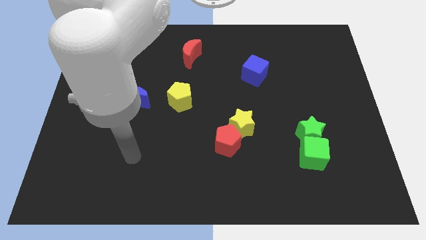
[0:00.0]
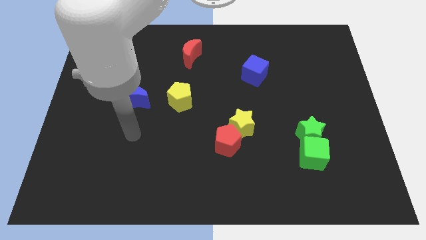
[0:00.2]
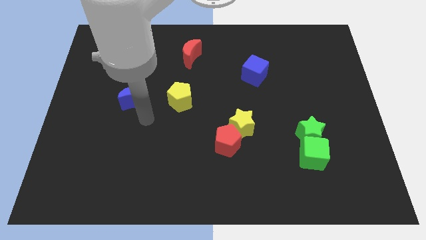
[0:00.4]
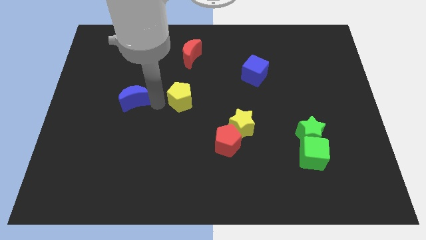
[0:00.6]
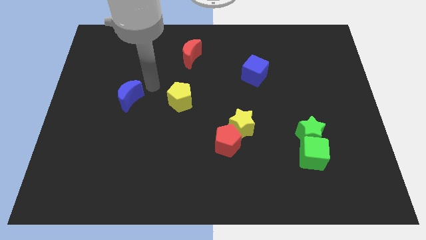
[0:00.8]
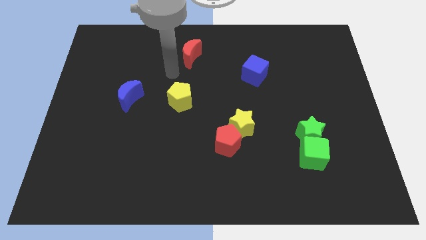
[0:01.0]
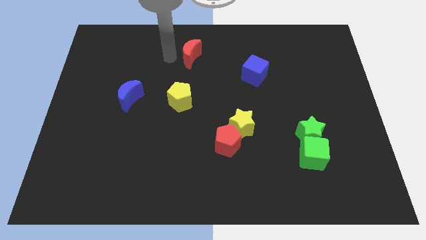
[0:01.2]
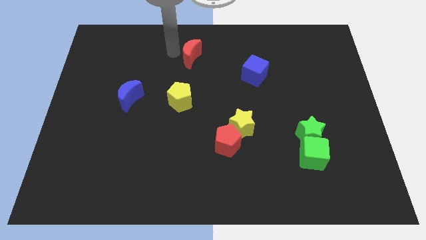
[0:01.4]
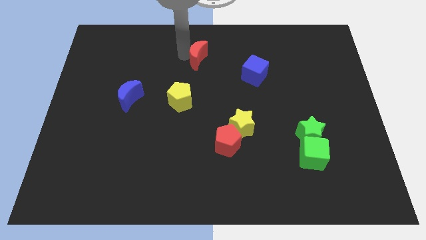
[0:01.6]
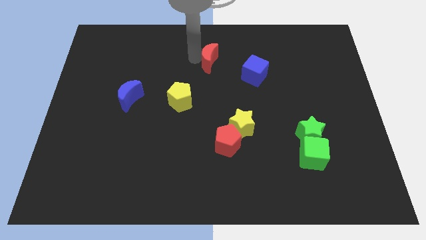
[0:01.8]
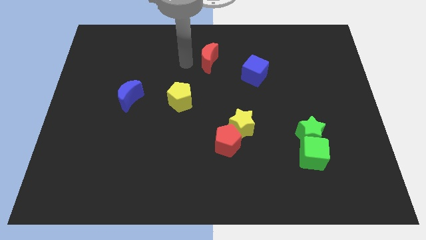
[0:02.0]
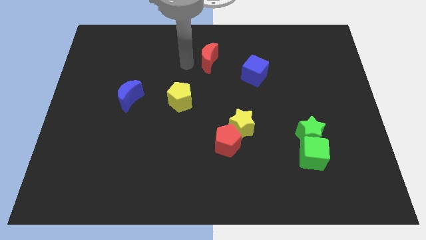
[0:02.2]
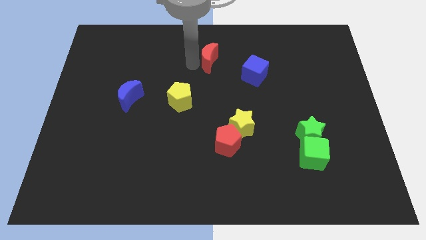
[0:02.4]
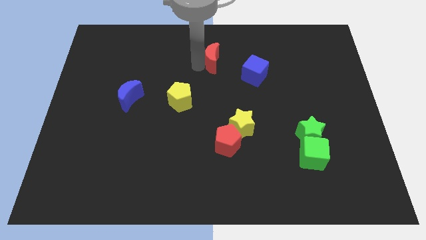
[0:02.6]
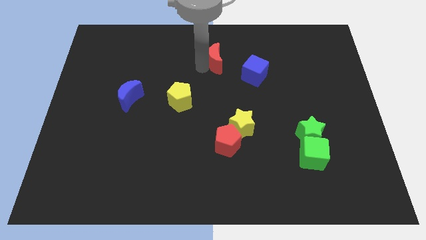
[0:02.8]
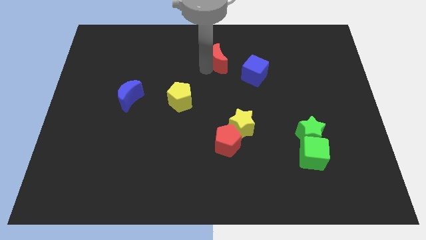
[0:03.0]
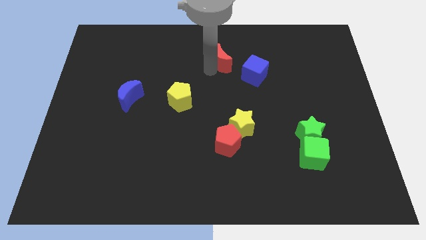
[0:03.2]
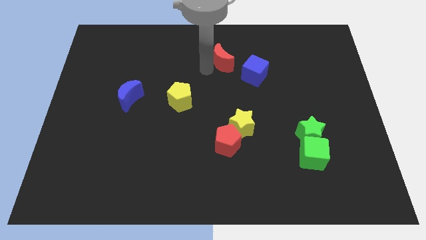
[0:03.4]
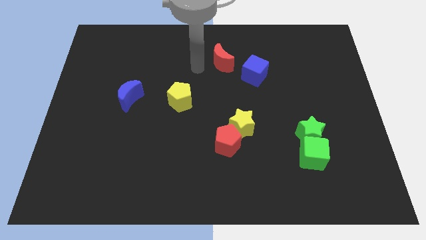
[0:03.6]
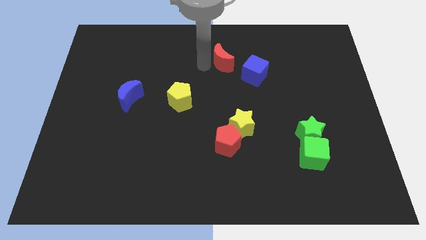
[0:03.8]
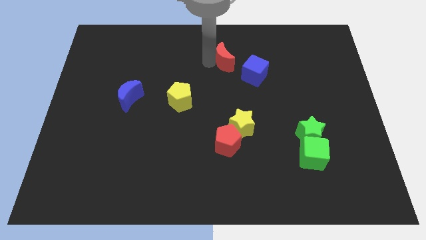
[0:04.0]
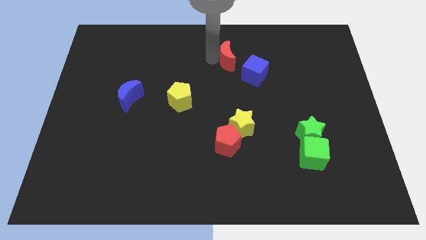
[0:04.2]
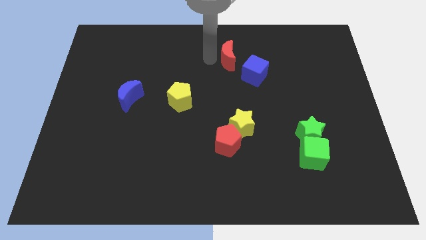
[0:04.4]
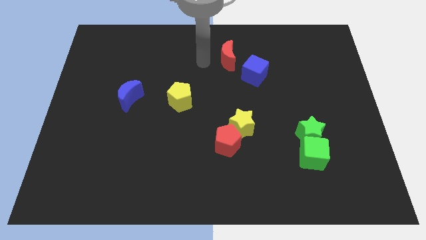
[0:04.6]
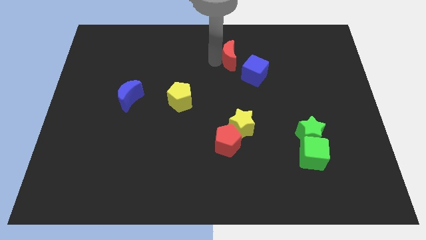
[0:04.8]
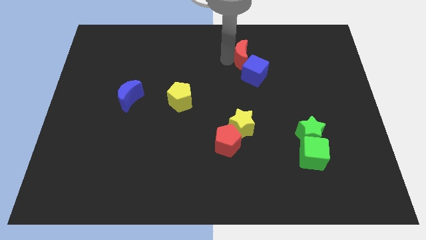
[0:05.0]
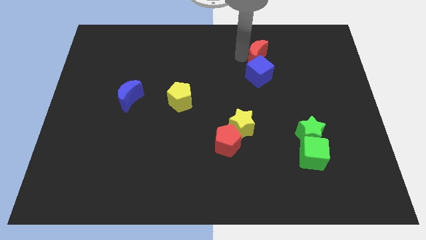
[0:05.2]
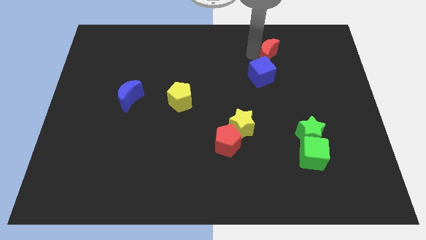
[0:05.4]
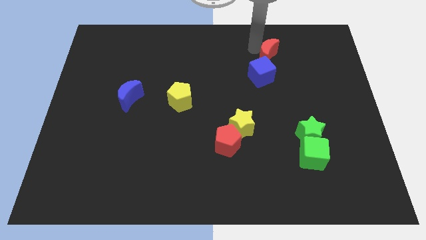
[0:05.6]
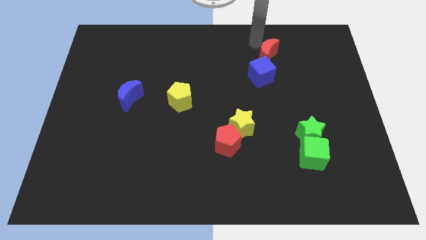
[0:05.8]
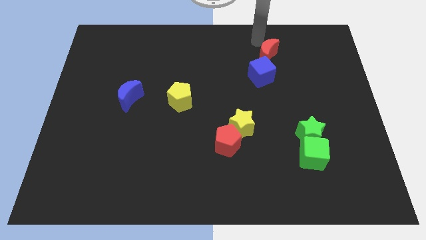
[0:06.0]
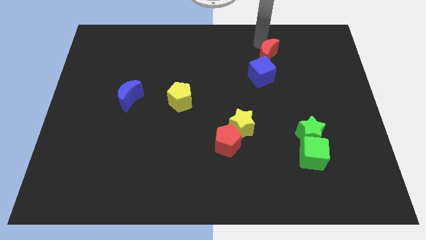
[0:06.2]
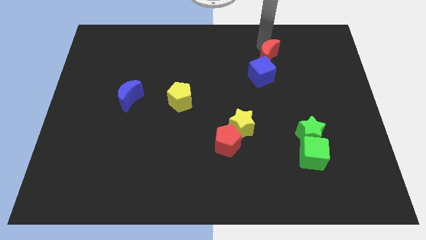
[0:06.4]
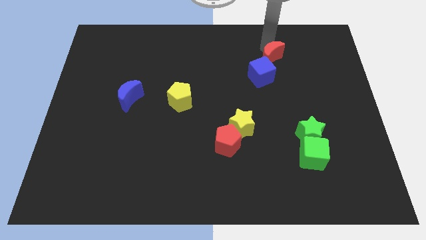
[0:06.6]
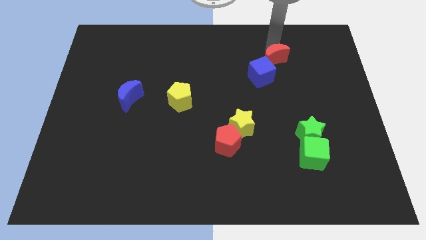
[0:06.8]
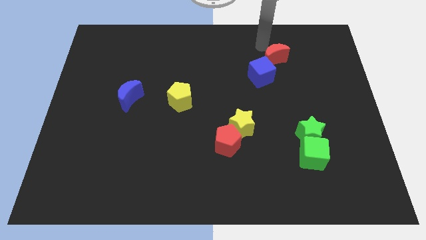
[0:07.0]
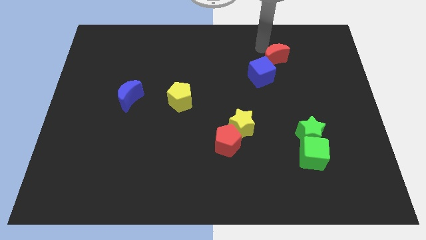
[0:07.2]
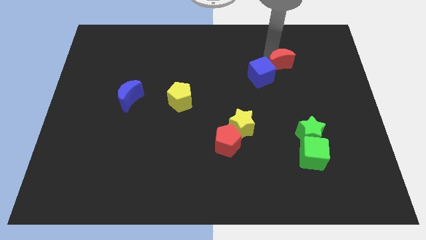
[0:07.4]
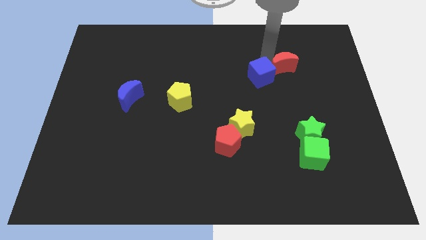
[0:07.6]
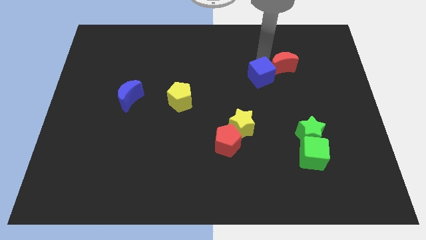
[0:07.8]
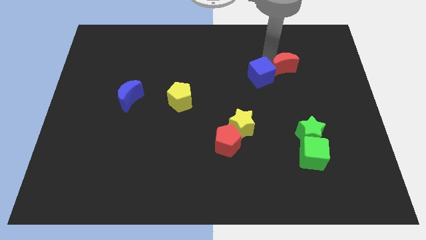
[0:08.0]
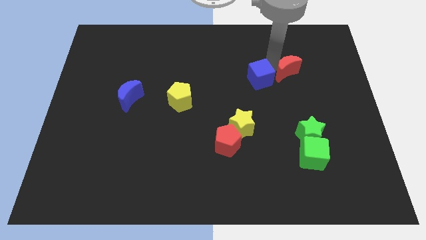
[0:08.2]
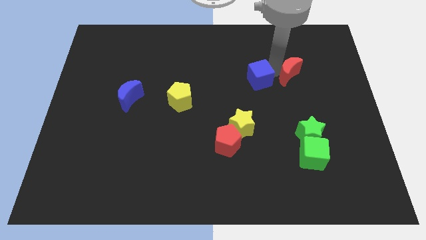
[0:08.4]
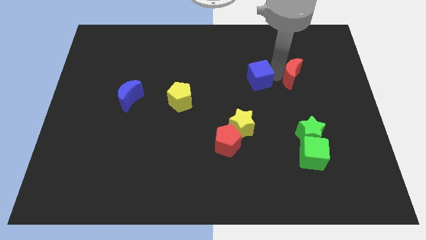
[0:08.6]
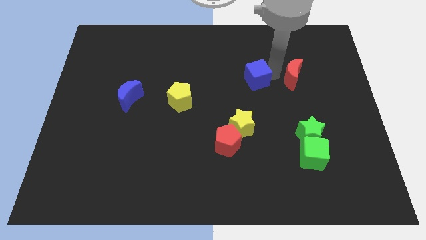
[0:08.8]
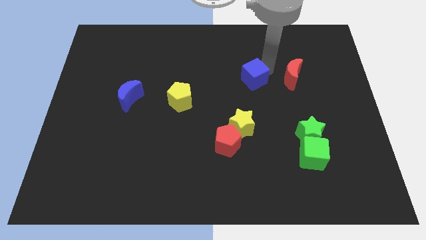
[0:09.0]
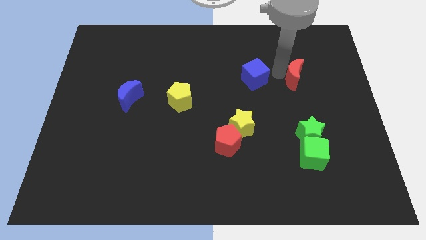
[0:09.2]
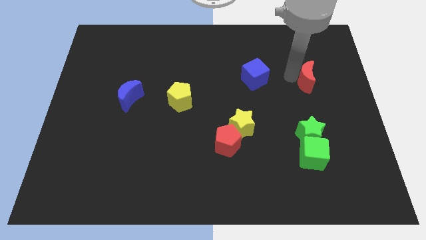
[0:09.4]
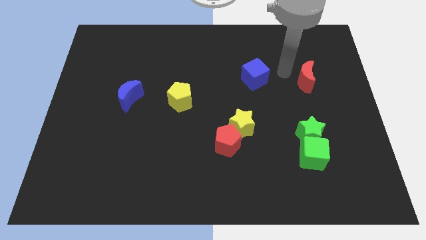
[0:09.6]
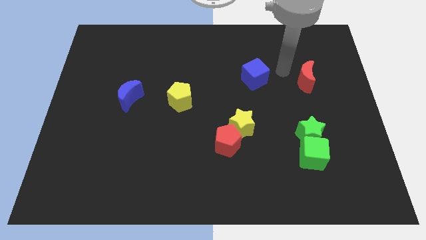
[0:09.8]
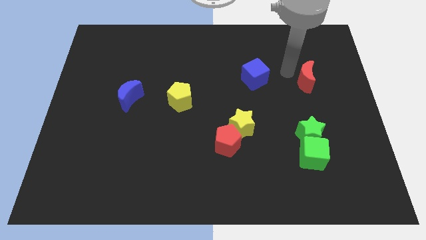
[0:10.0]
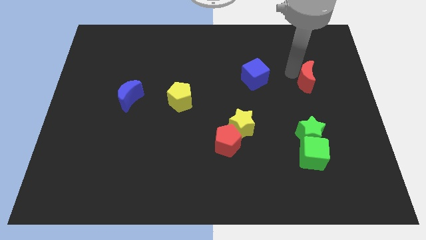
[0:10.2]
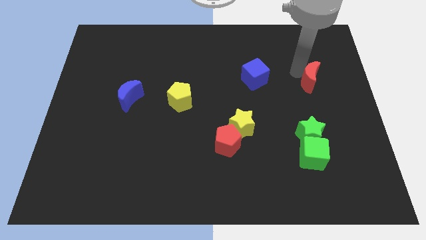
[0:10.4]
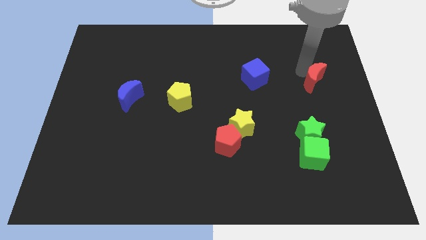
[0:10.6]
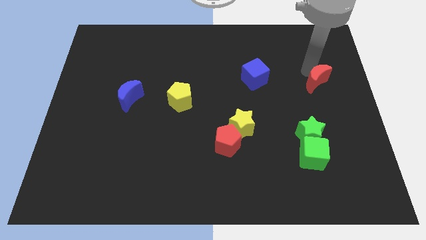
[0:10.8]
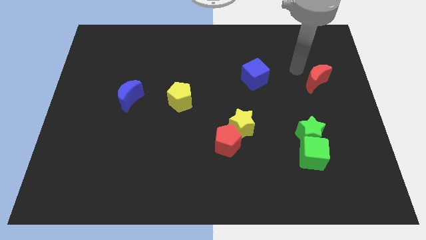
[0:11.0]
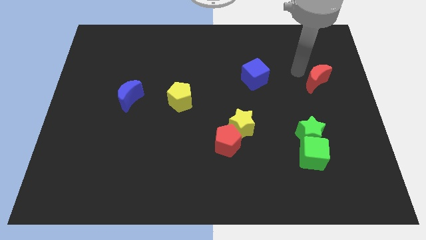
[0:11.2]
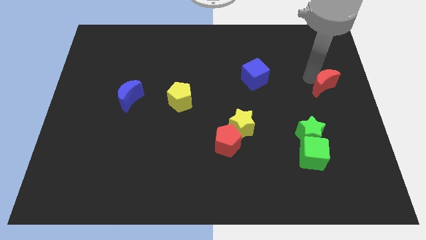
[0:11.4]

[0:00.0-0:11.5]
push the red moon to the right side
